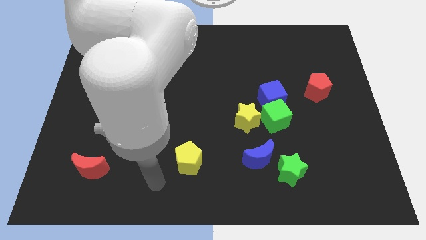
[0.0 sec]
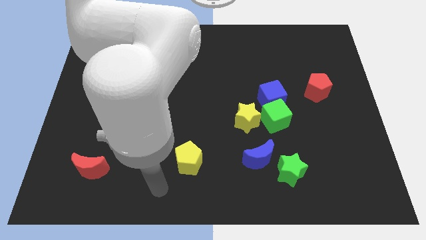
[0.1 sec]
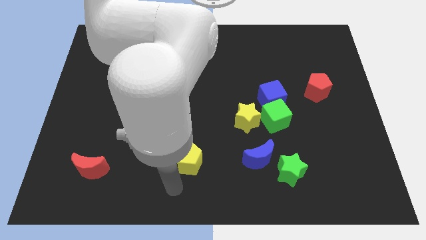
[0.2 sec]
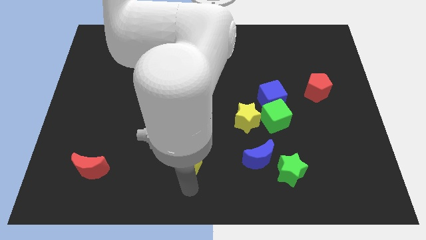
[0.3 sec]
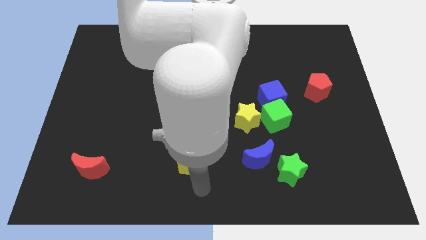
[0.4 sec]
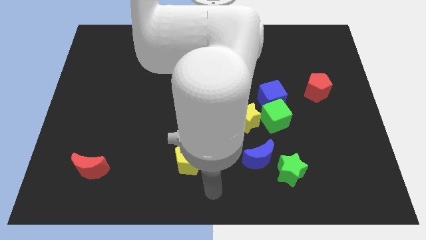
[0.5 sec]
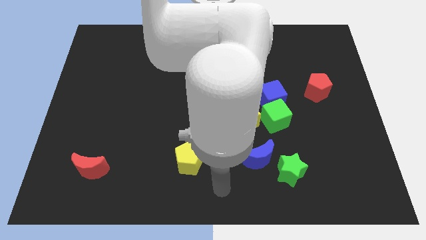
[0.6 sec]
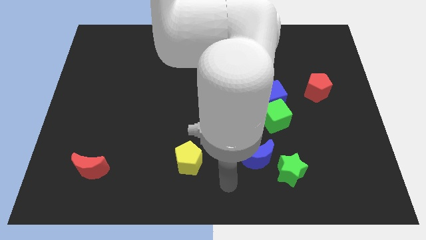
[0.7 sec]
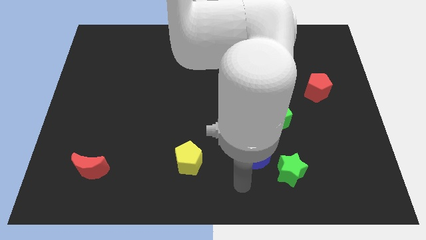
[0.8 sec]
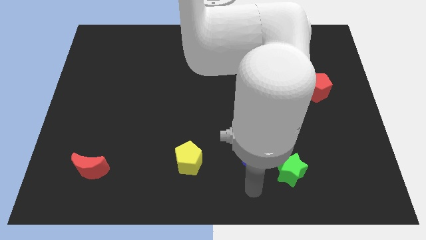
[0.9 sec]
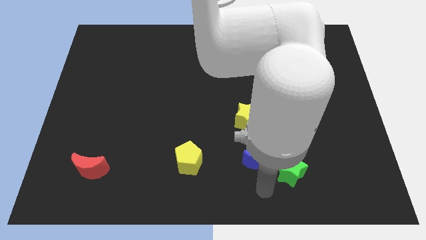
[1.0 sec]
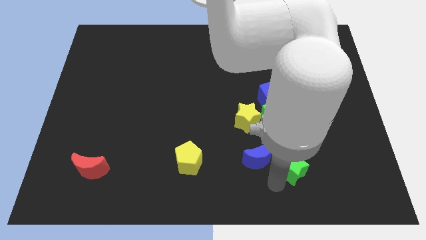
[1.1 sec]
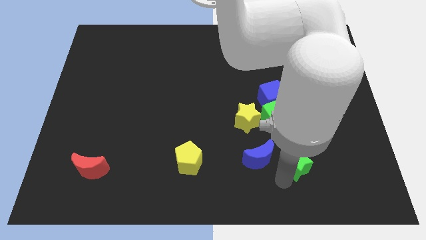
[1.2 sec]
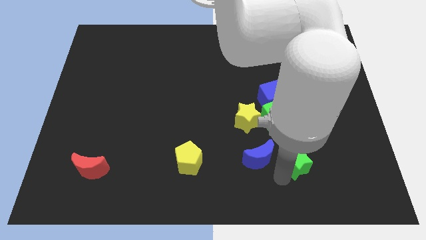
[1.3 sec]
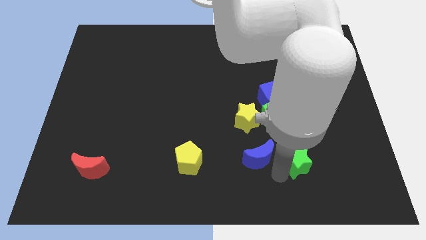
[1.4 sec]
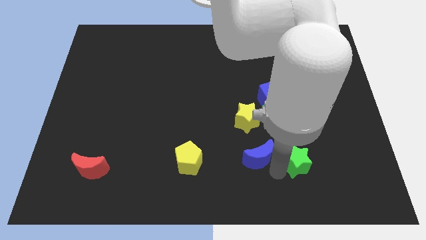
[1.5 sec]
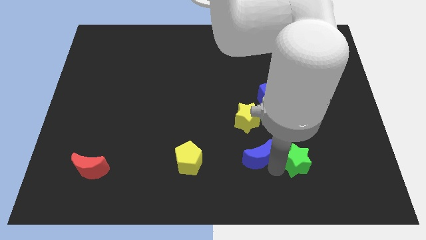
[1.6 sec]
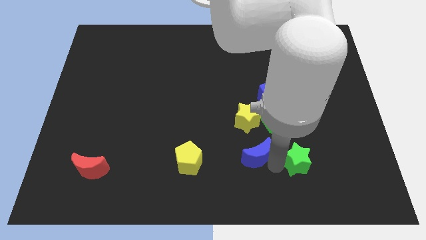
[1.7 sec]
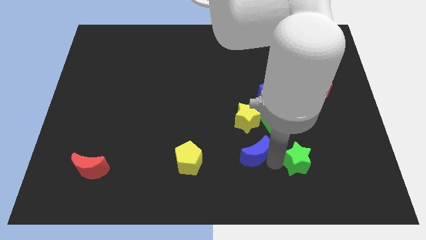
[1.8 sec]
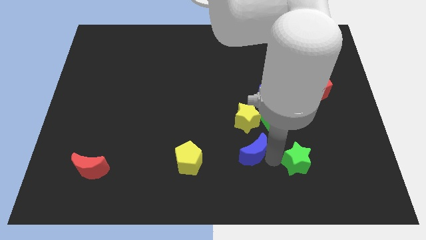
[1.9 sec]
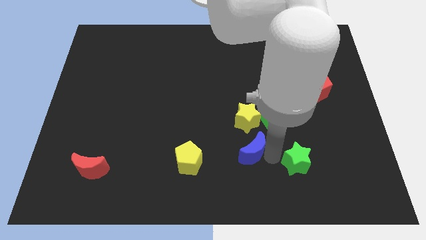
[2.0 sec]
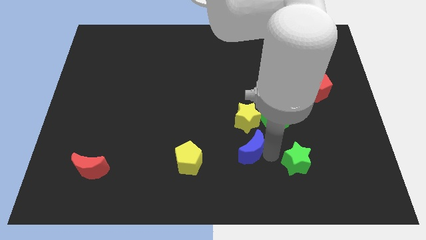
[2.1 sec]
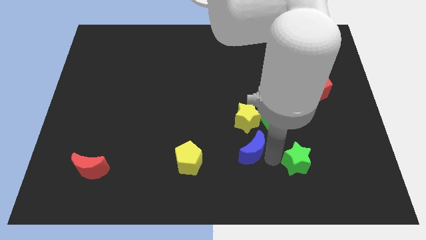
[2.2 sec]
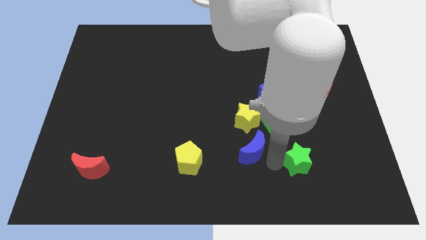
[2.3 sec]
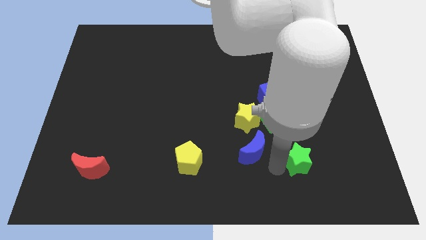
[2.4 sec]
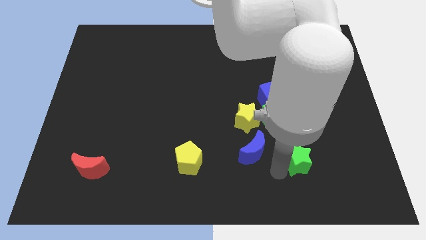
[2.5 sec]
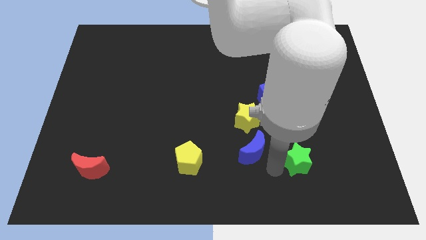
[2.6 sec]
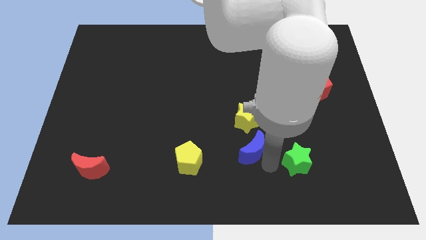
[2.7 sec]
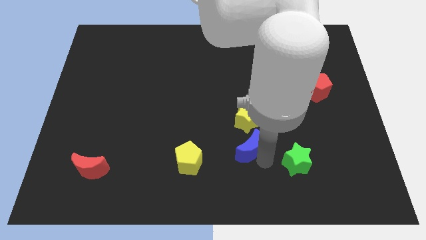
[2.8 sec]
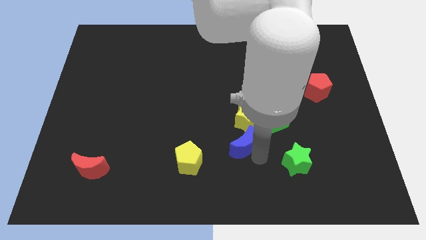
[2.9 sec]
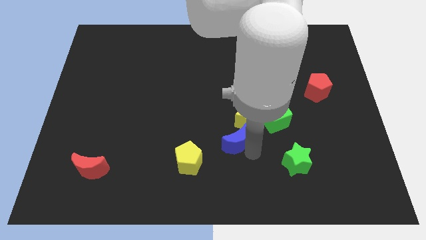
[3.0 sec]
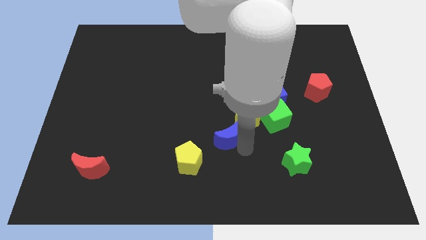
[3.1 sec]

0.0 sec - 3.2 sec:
move the blue moon up and to the left a little

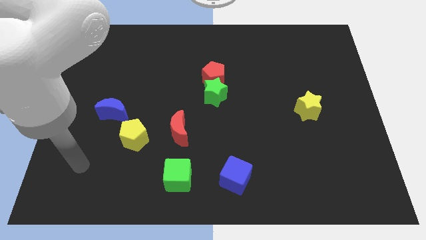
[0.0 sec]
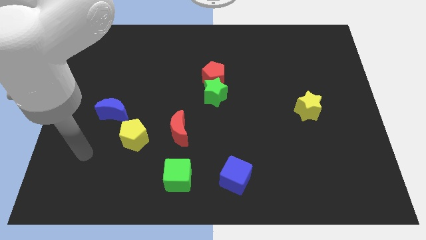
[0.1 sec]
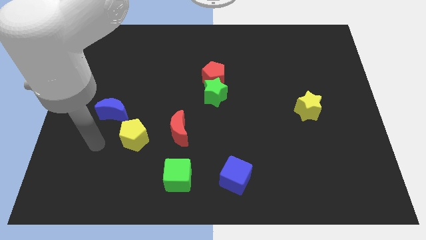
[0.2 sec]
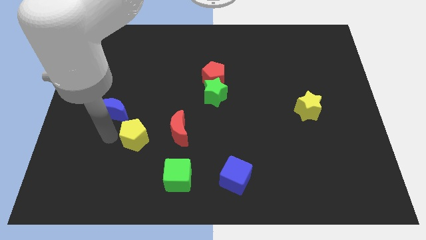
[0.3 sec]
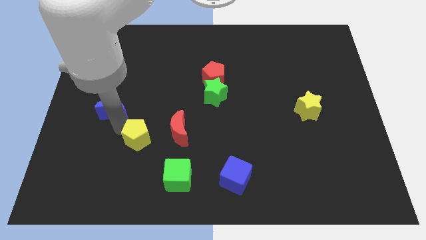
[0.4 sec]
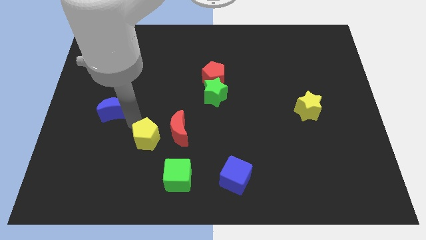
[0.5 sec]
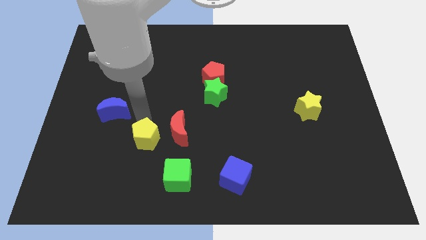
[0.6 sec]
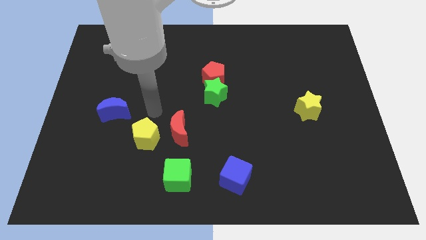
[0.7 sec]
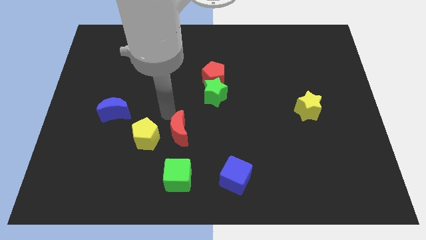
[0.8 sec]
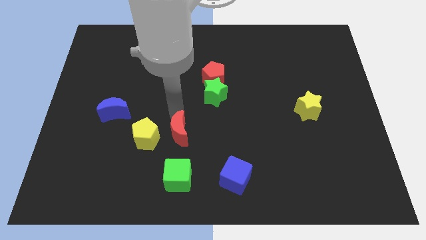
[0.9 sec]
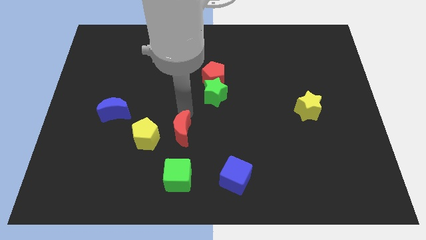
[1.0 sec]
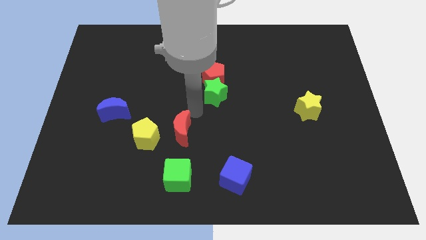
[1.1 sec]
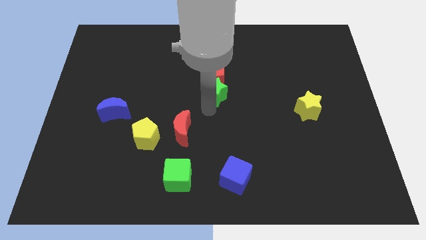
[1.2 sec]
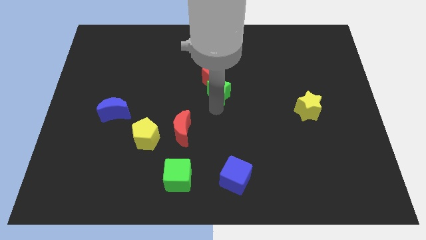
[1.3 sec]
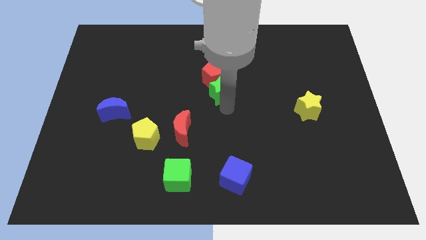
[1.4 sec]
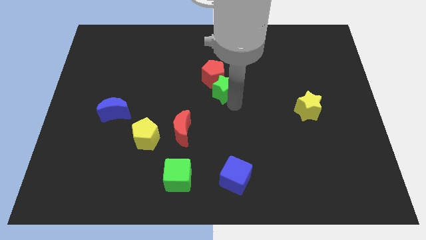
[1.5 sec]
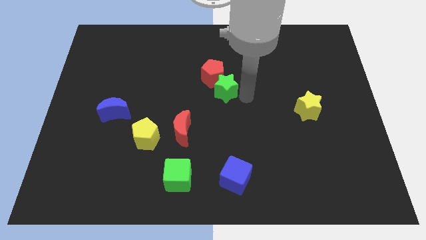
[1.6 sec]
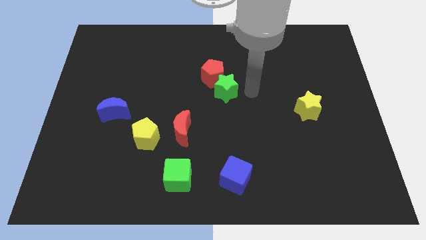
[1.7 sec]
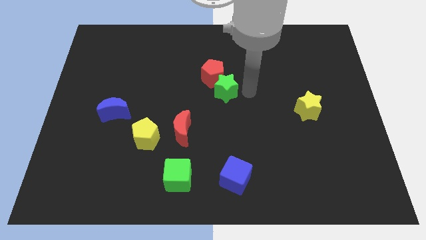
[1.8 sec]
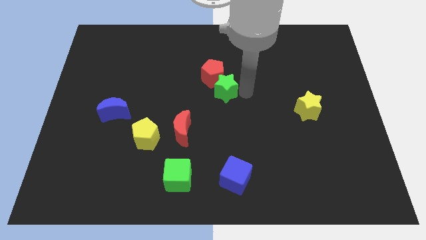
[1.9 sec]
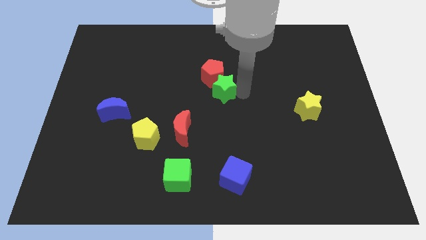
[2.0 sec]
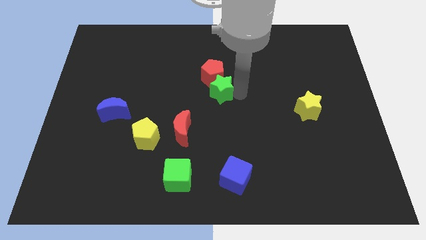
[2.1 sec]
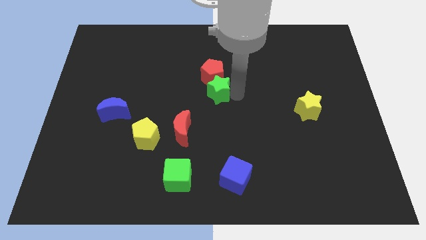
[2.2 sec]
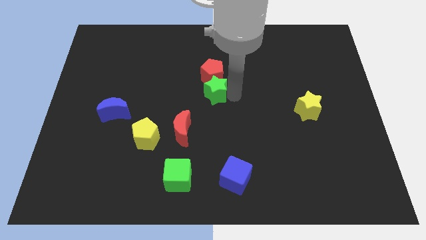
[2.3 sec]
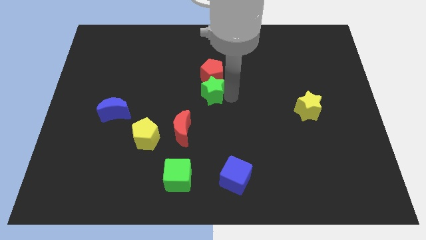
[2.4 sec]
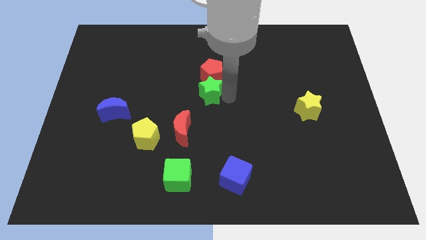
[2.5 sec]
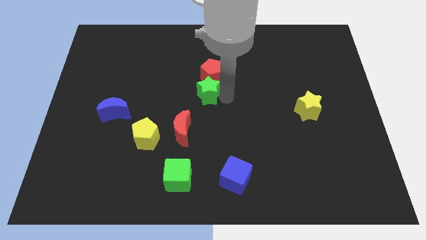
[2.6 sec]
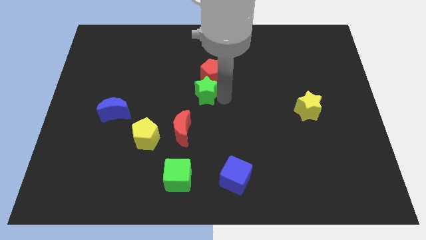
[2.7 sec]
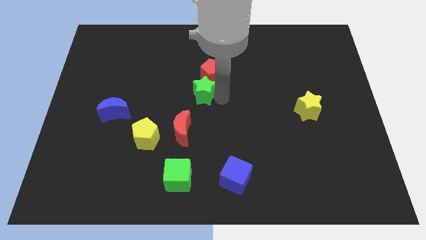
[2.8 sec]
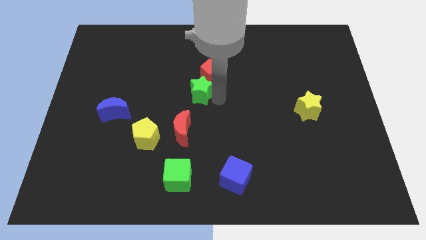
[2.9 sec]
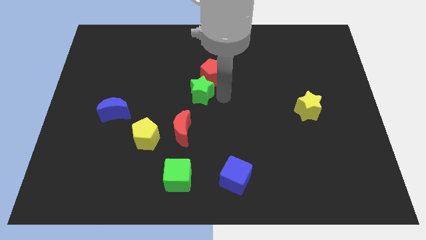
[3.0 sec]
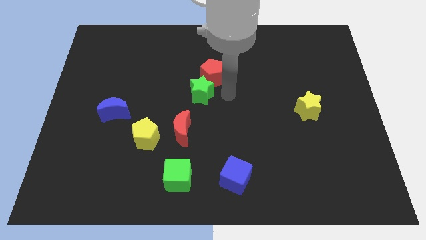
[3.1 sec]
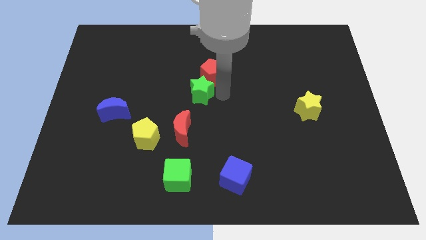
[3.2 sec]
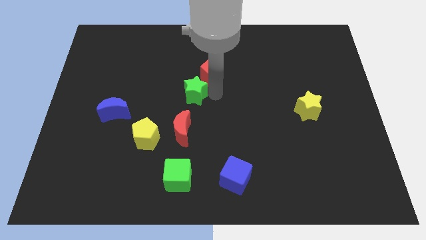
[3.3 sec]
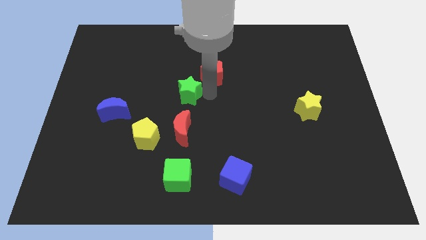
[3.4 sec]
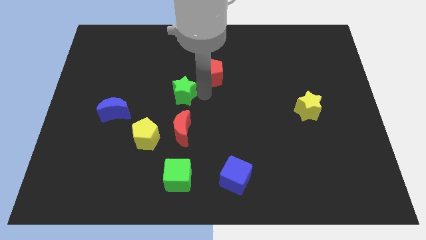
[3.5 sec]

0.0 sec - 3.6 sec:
push the green star slightly to the left

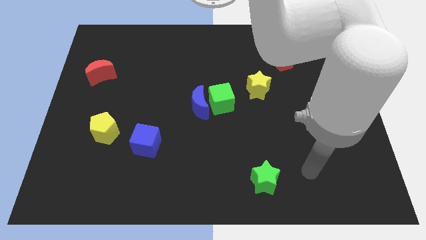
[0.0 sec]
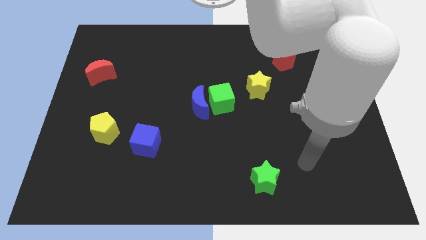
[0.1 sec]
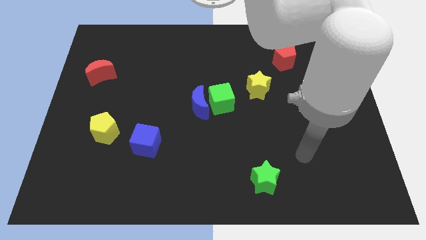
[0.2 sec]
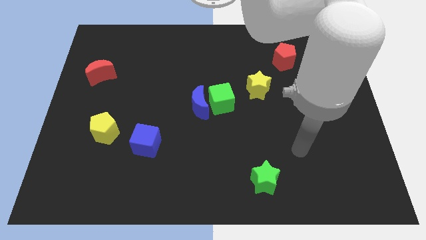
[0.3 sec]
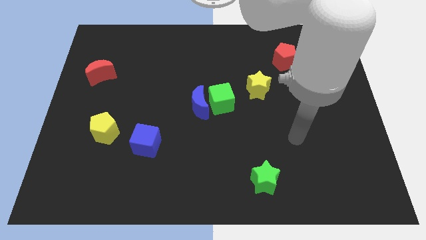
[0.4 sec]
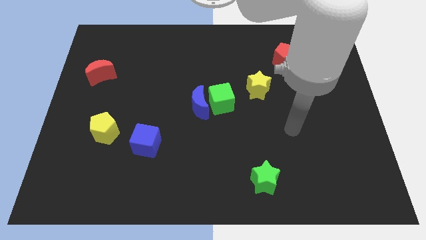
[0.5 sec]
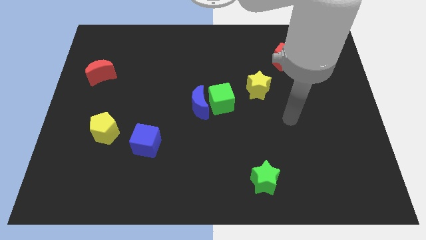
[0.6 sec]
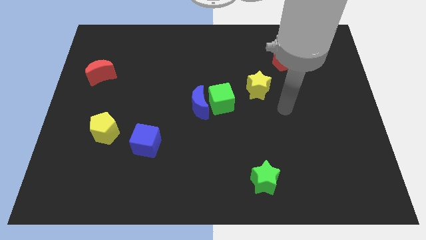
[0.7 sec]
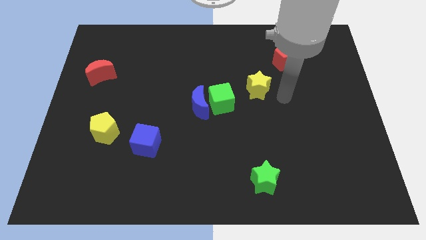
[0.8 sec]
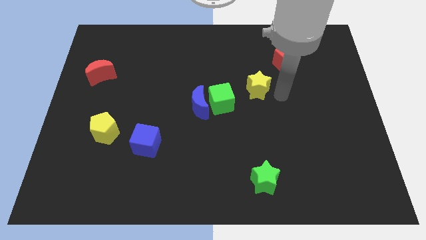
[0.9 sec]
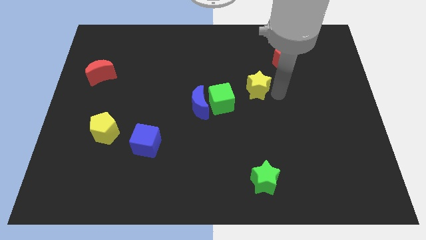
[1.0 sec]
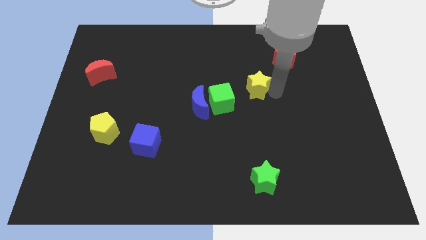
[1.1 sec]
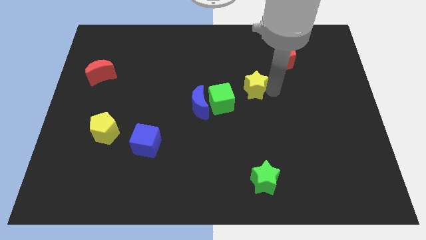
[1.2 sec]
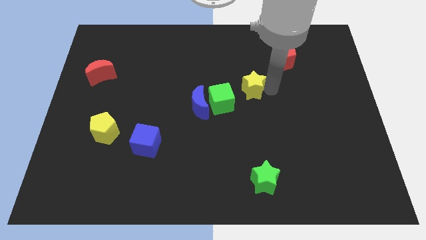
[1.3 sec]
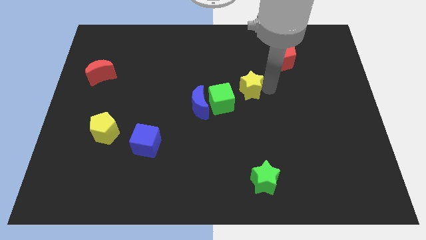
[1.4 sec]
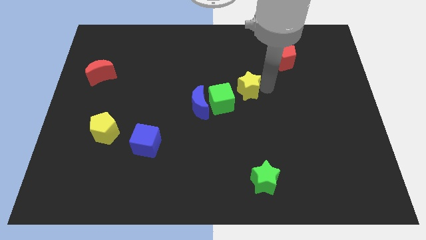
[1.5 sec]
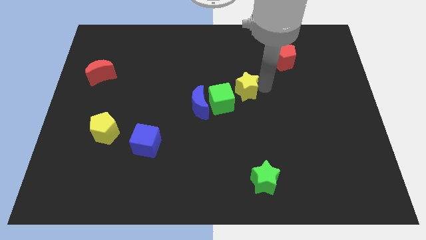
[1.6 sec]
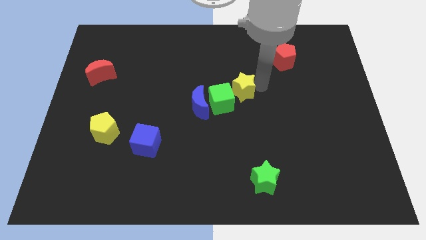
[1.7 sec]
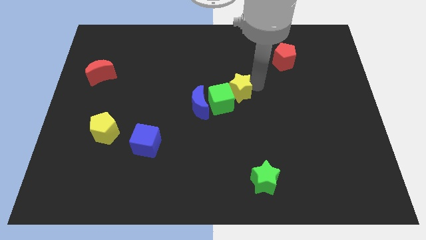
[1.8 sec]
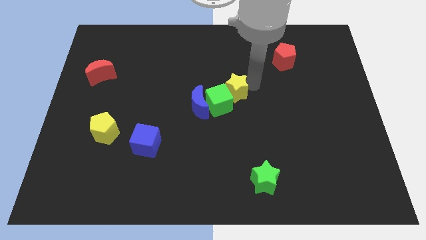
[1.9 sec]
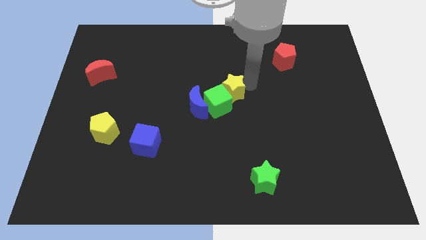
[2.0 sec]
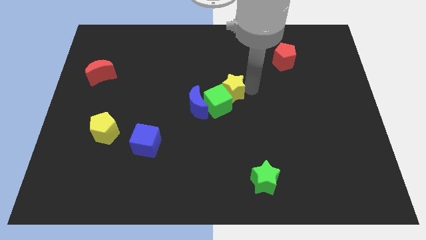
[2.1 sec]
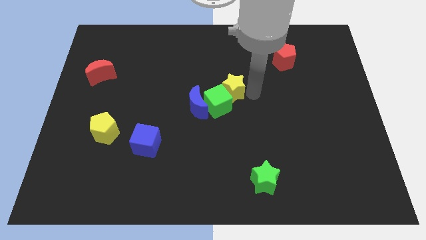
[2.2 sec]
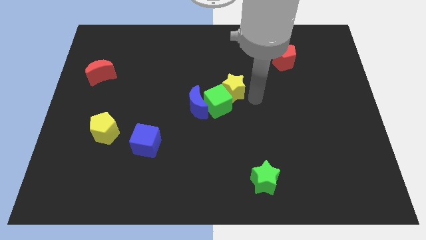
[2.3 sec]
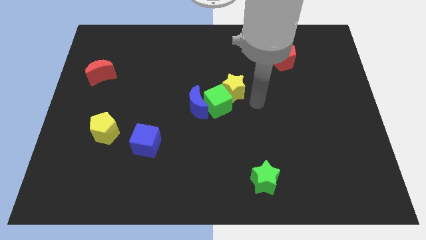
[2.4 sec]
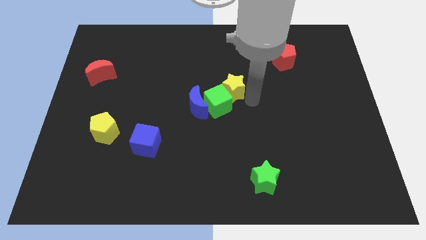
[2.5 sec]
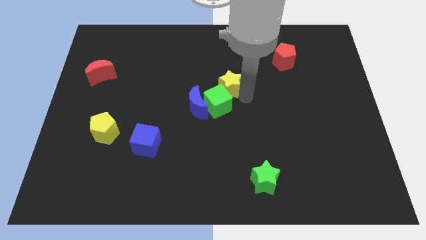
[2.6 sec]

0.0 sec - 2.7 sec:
slightly push the yellow star left
